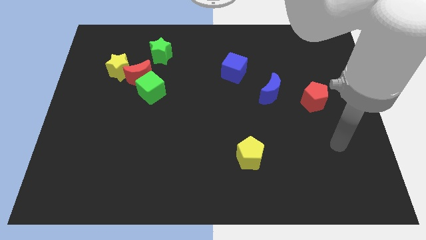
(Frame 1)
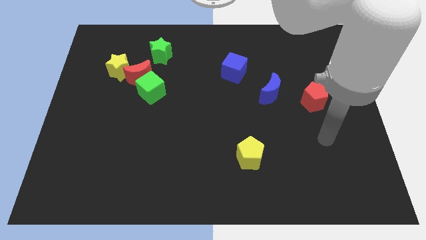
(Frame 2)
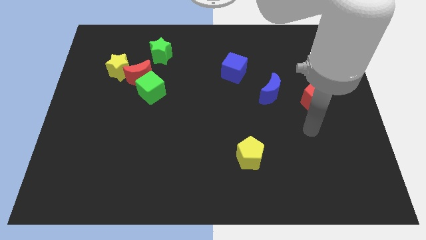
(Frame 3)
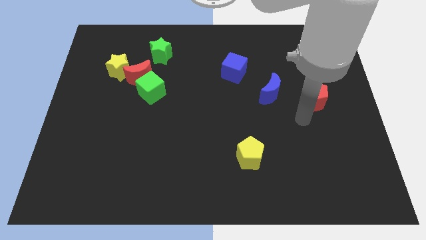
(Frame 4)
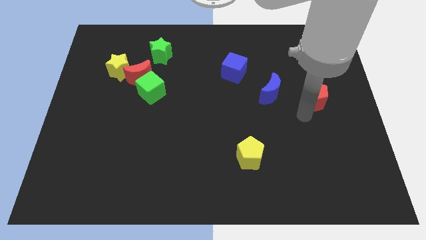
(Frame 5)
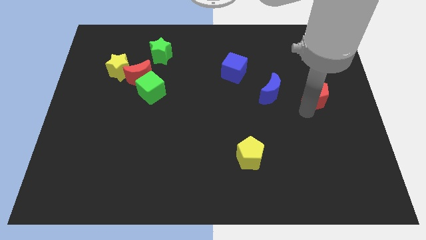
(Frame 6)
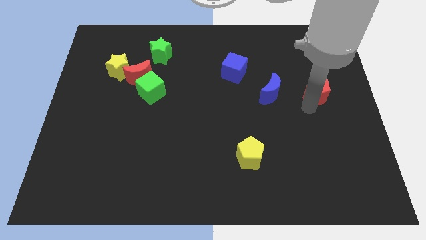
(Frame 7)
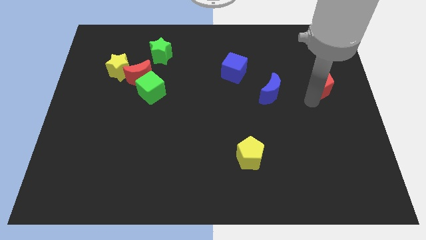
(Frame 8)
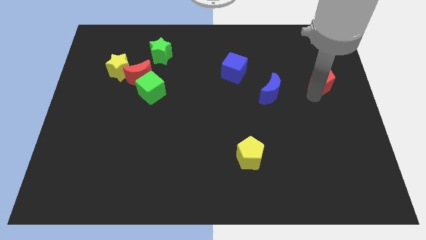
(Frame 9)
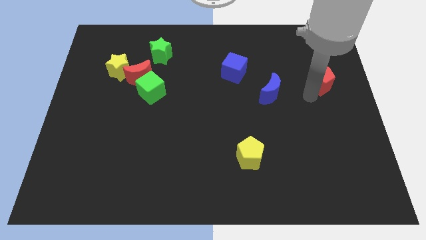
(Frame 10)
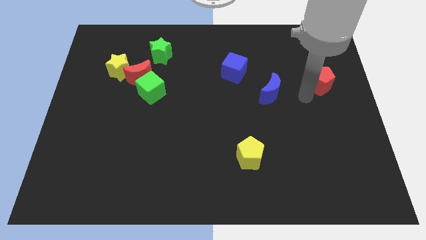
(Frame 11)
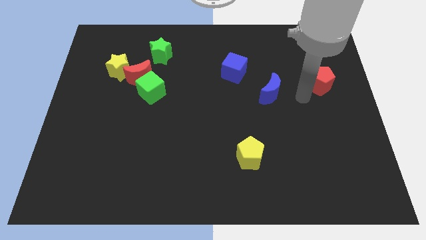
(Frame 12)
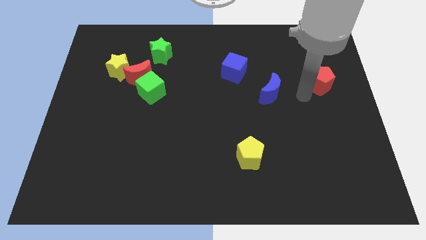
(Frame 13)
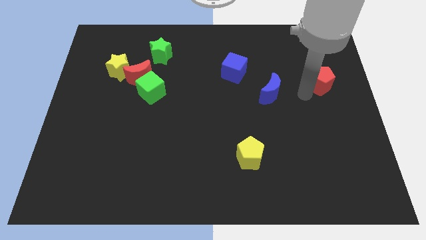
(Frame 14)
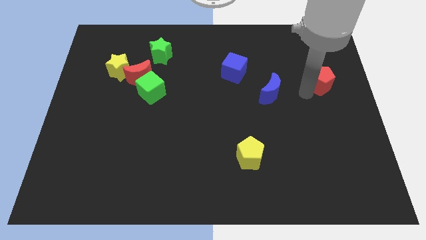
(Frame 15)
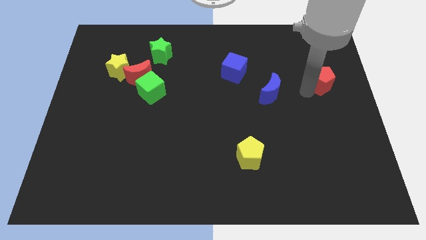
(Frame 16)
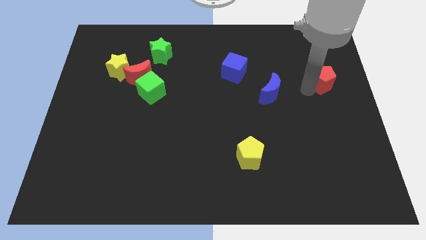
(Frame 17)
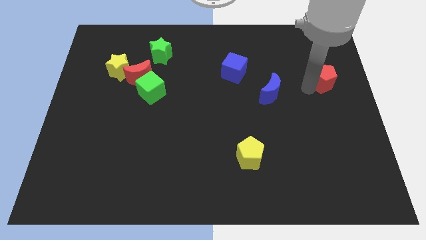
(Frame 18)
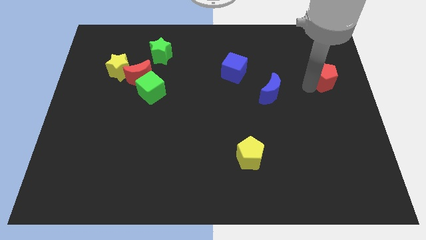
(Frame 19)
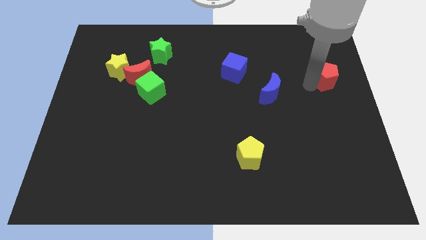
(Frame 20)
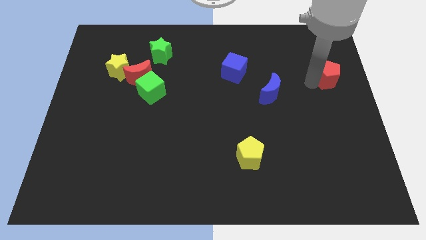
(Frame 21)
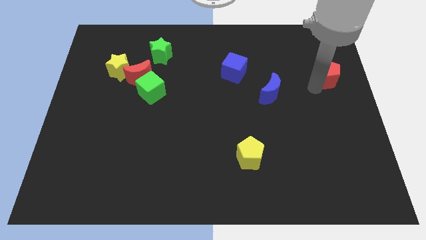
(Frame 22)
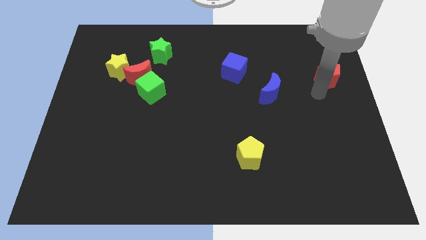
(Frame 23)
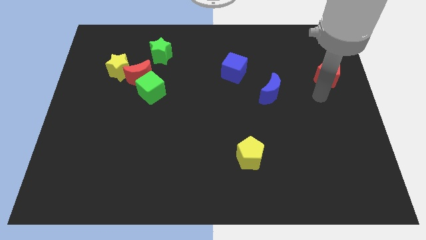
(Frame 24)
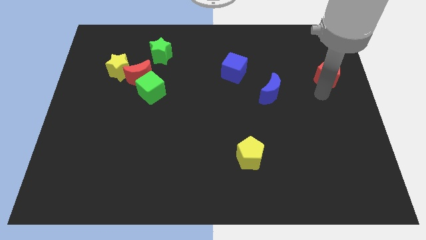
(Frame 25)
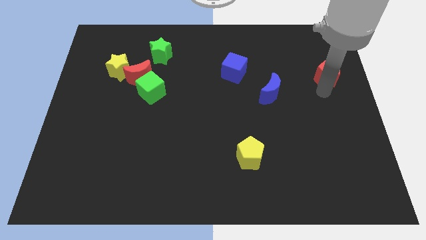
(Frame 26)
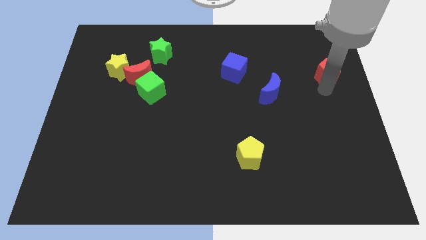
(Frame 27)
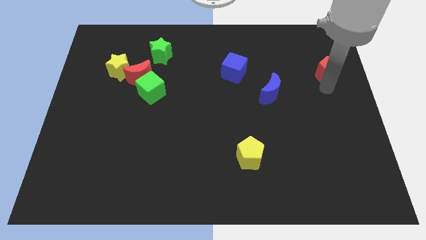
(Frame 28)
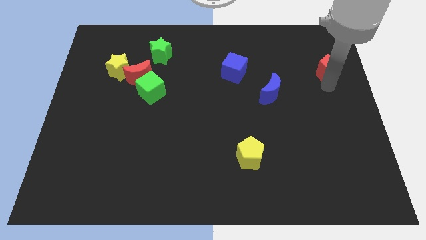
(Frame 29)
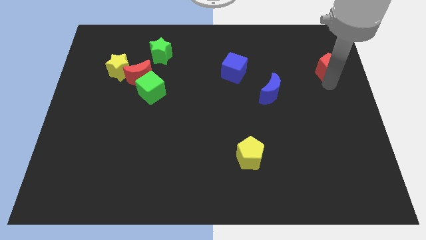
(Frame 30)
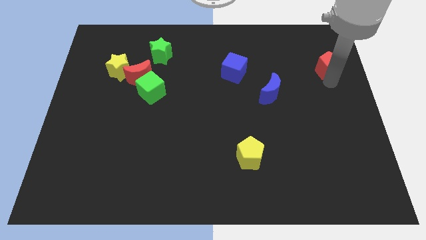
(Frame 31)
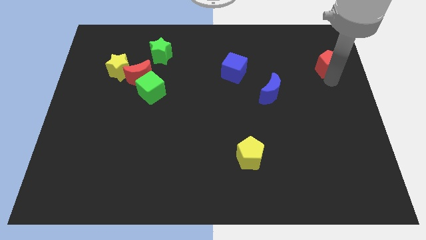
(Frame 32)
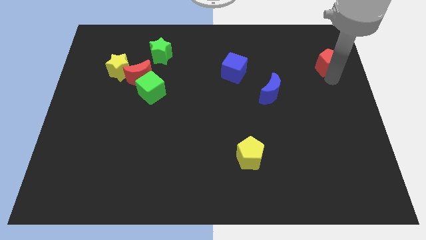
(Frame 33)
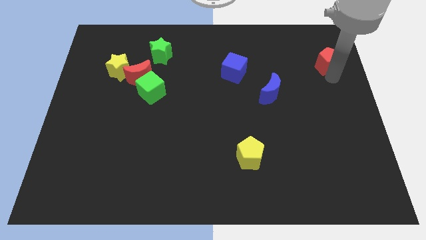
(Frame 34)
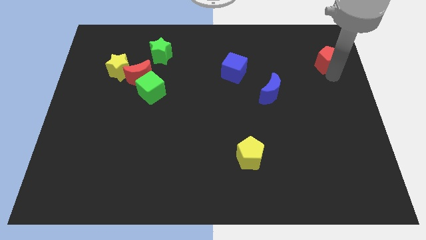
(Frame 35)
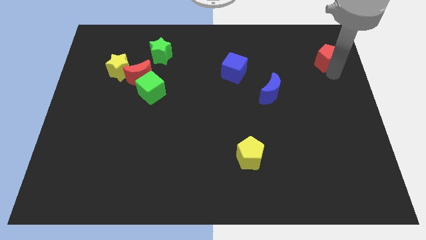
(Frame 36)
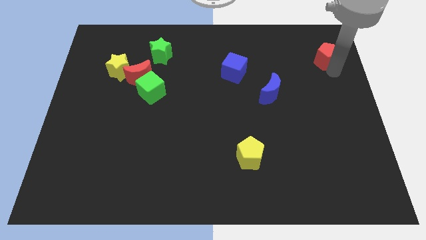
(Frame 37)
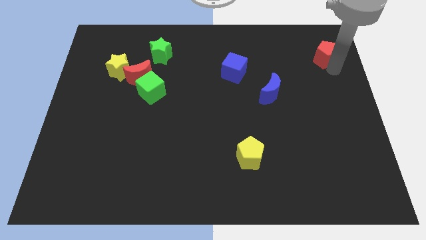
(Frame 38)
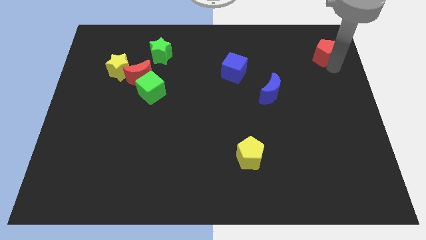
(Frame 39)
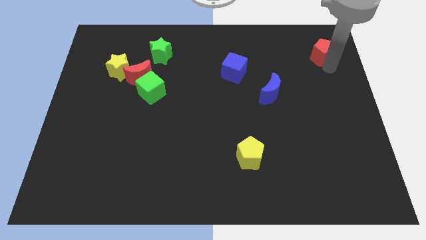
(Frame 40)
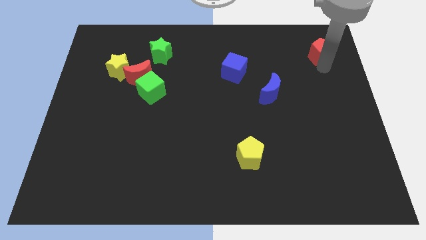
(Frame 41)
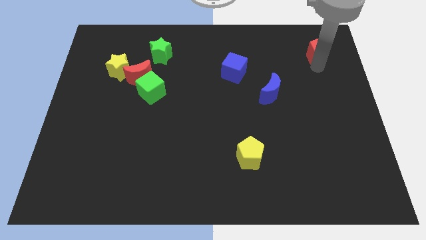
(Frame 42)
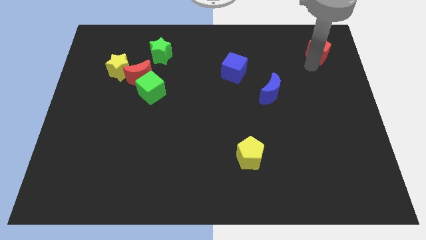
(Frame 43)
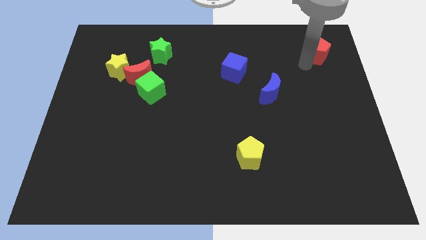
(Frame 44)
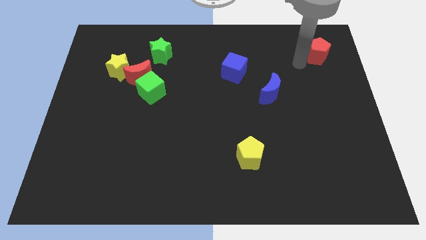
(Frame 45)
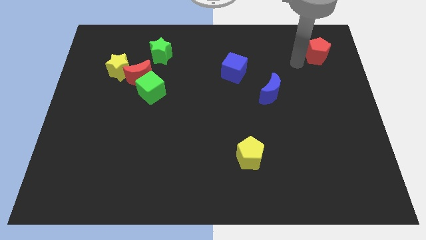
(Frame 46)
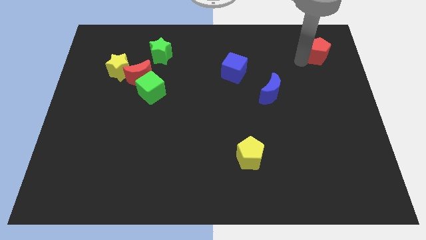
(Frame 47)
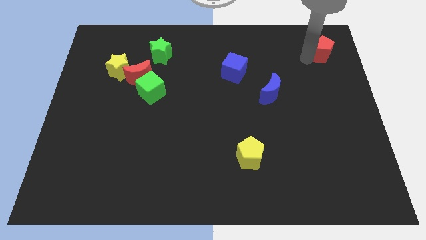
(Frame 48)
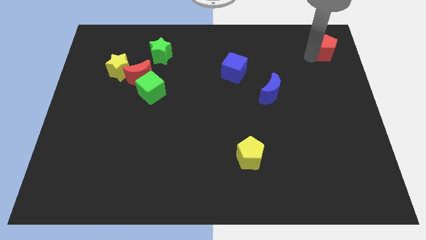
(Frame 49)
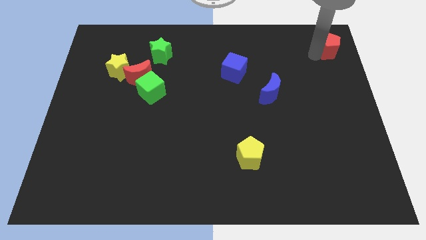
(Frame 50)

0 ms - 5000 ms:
move the red pentagon to the upper right corner

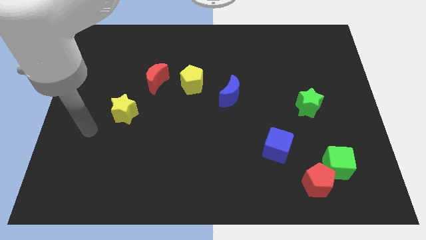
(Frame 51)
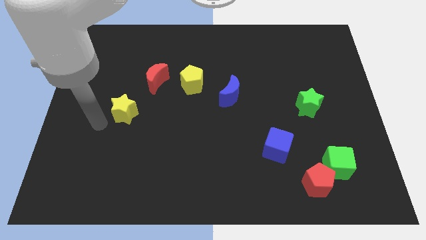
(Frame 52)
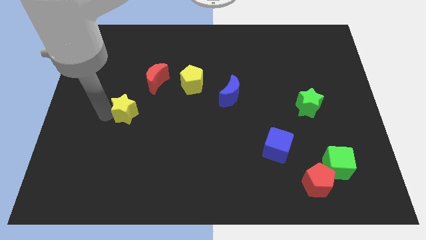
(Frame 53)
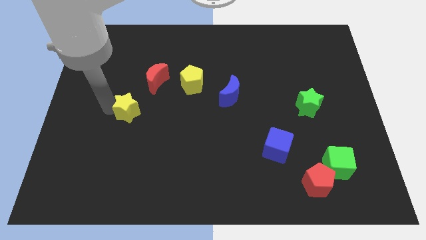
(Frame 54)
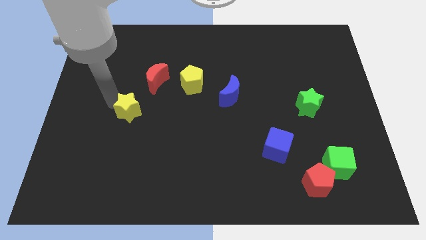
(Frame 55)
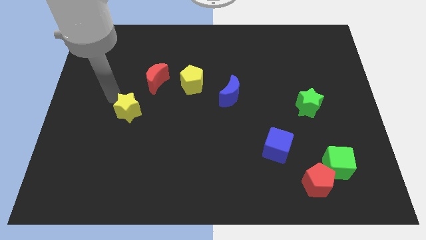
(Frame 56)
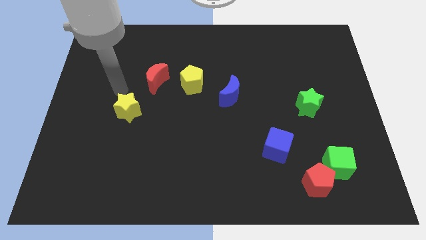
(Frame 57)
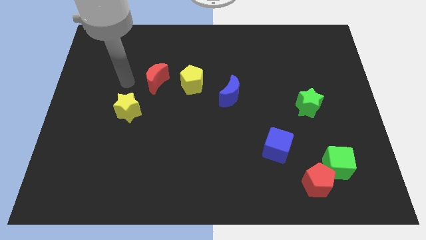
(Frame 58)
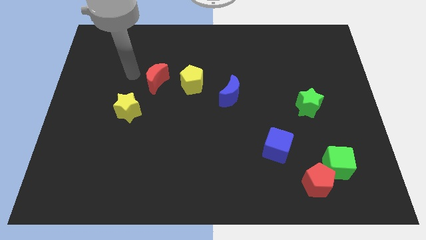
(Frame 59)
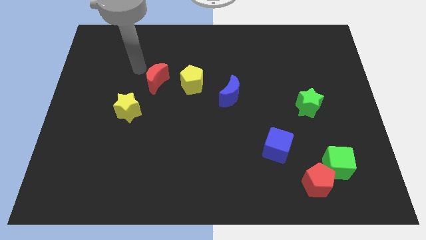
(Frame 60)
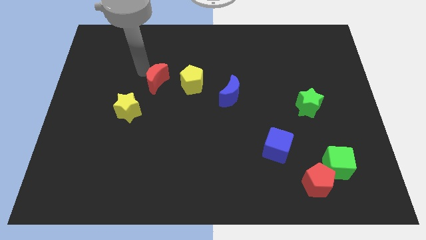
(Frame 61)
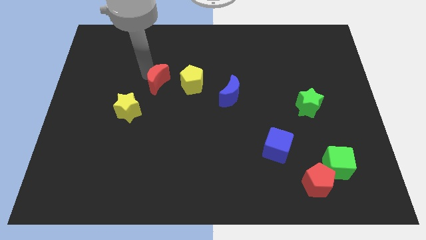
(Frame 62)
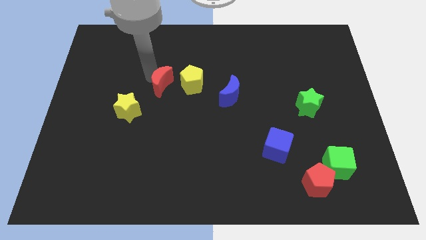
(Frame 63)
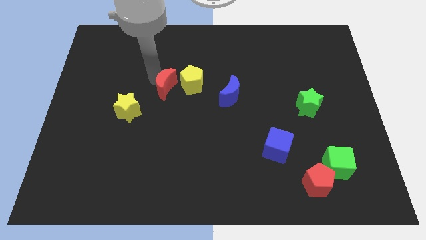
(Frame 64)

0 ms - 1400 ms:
put the red moon to the middle

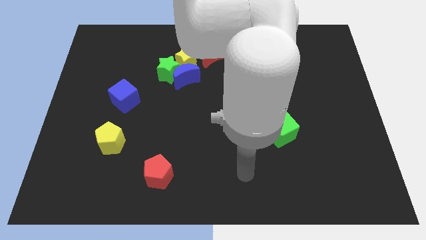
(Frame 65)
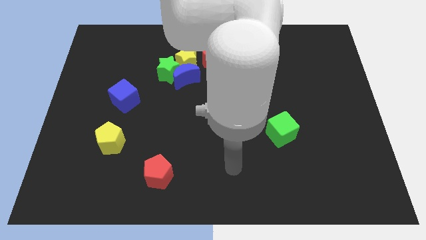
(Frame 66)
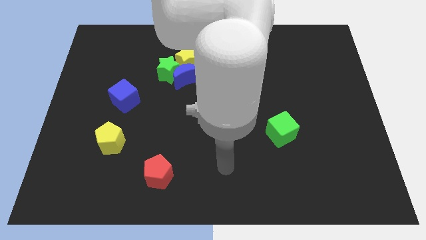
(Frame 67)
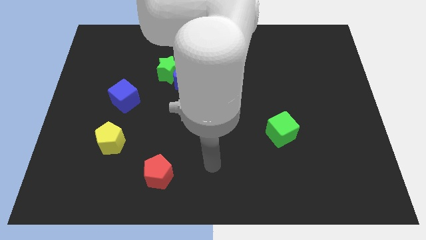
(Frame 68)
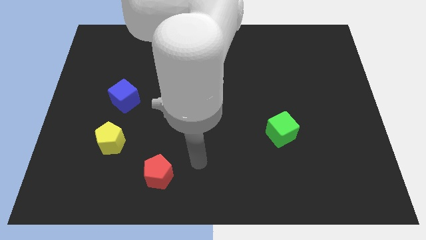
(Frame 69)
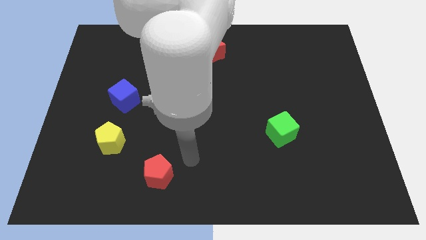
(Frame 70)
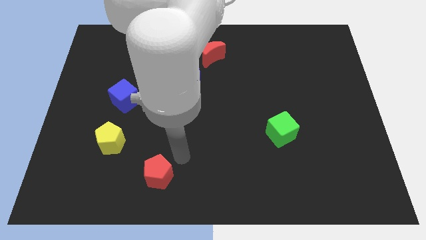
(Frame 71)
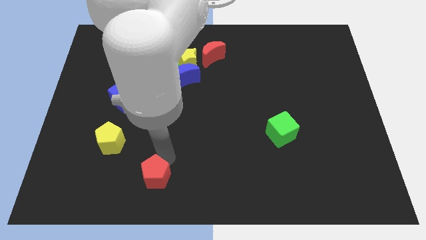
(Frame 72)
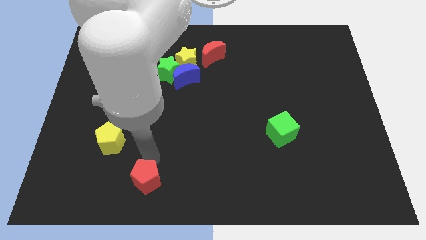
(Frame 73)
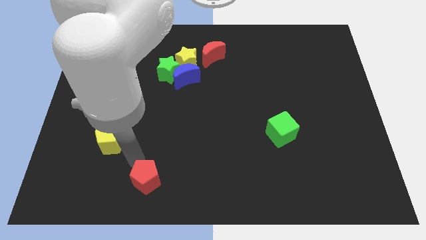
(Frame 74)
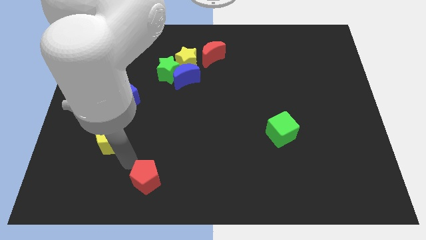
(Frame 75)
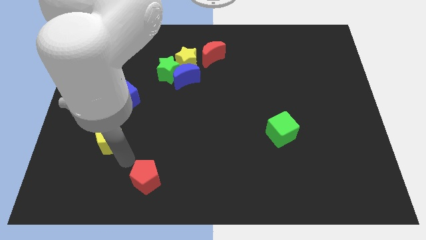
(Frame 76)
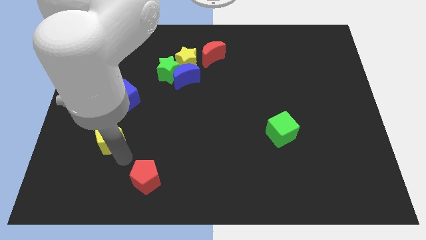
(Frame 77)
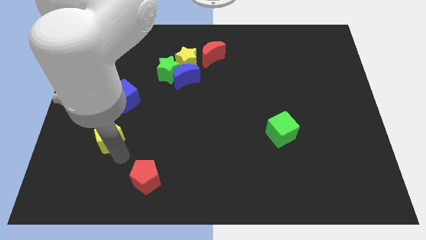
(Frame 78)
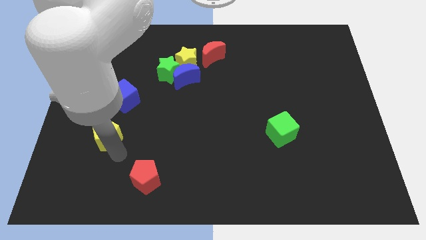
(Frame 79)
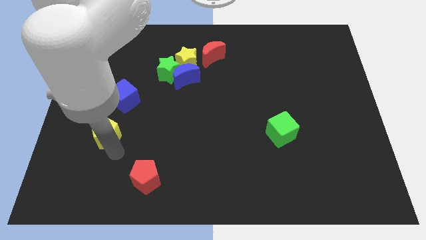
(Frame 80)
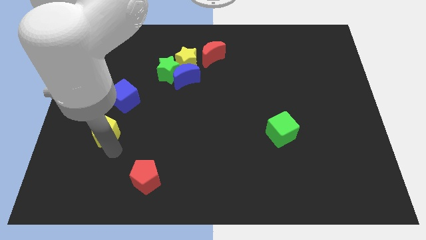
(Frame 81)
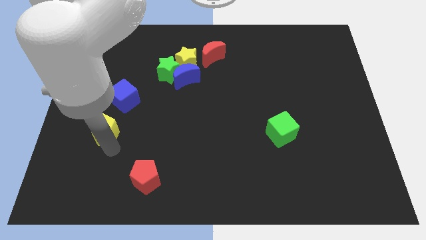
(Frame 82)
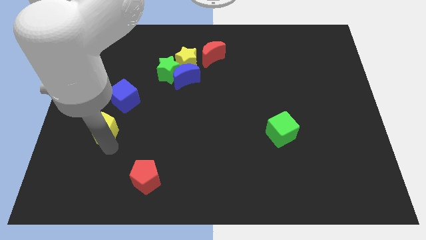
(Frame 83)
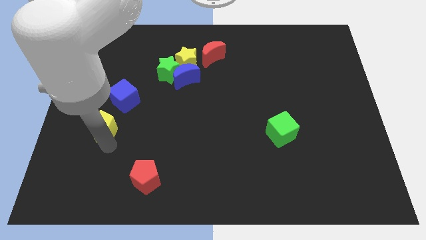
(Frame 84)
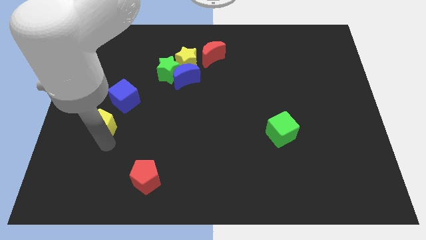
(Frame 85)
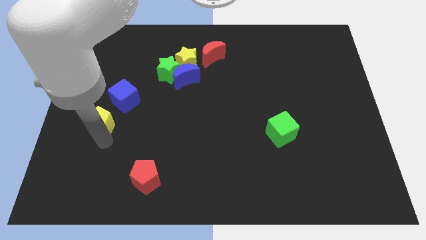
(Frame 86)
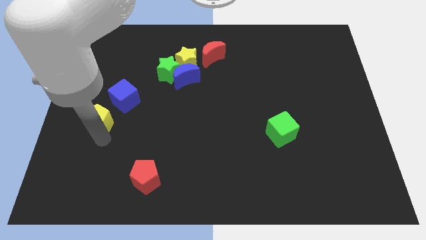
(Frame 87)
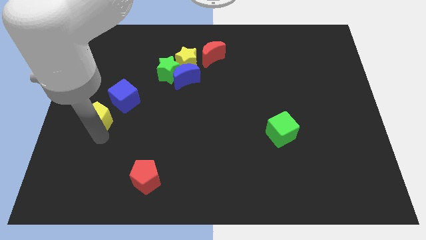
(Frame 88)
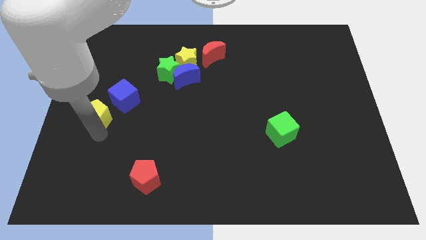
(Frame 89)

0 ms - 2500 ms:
put the yellow pentagon to the left side of the board
